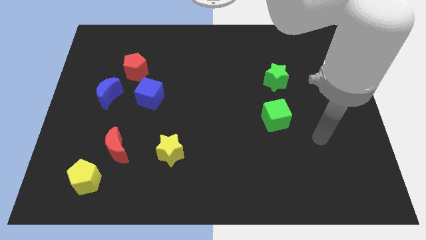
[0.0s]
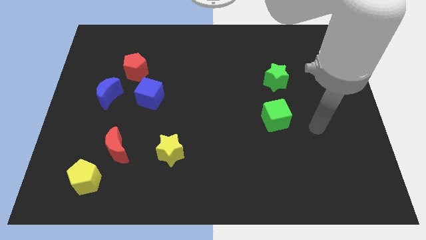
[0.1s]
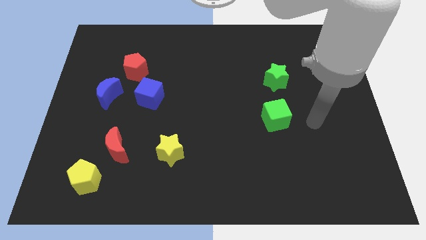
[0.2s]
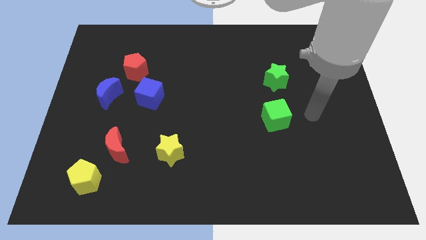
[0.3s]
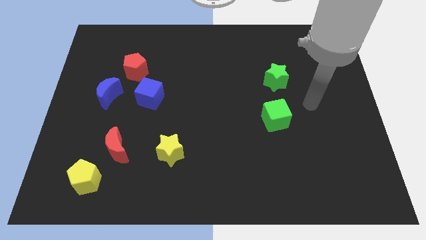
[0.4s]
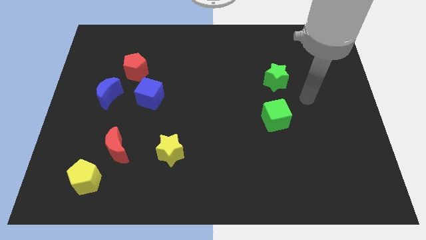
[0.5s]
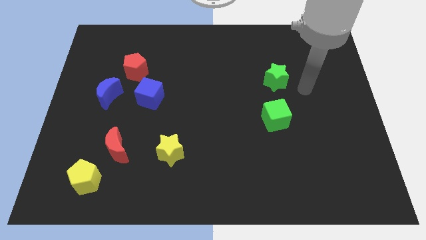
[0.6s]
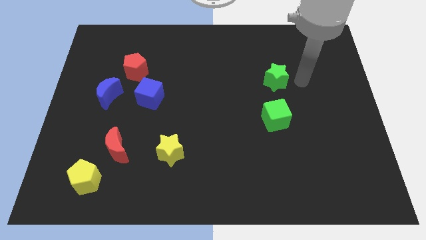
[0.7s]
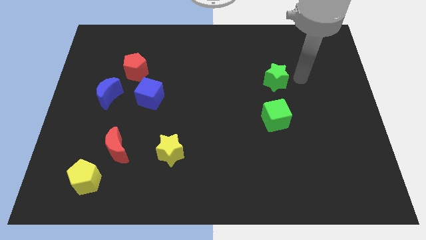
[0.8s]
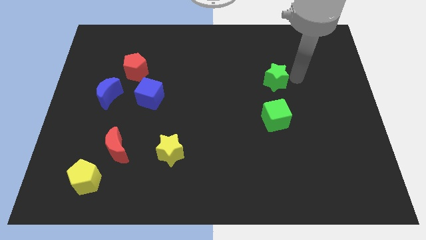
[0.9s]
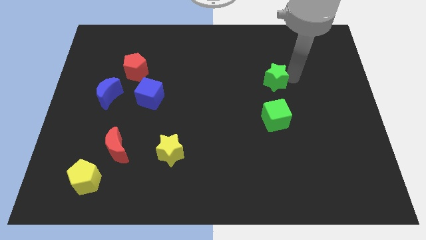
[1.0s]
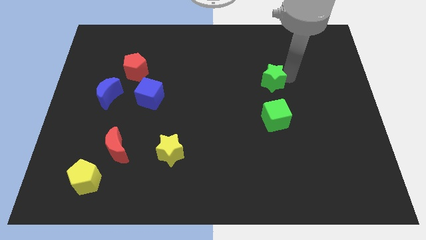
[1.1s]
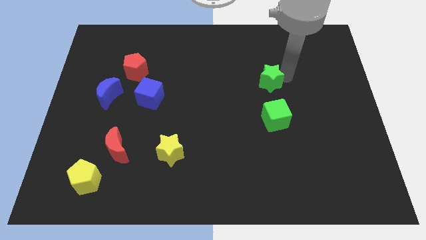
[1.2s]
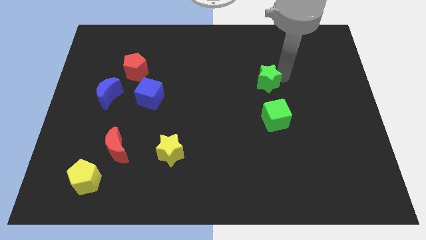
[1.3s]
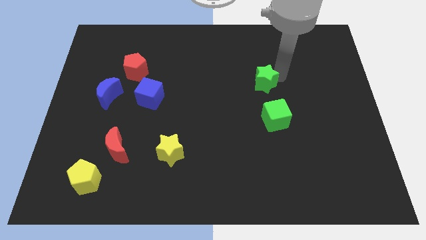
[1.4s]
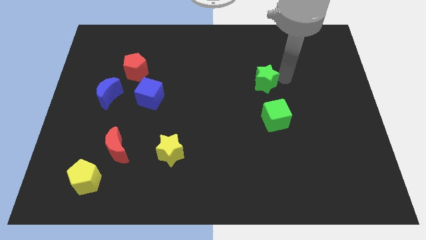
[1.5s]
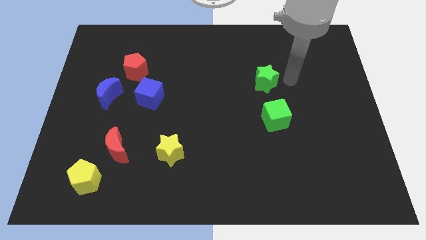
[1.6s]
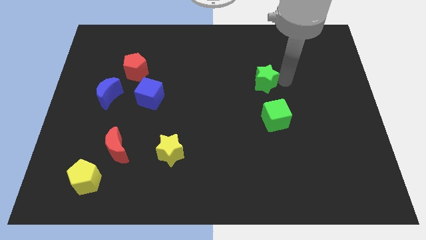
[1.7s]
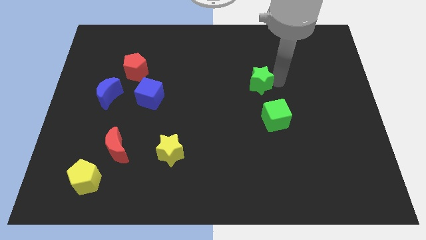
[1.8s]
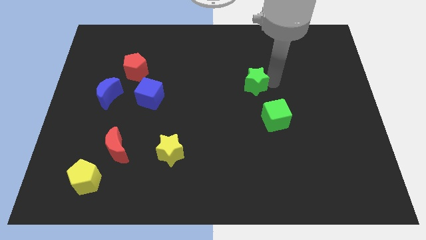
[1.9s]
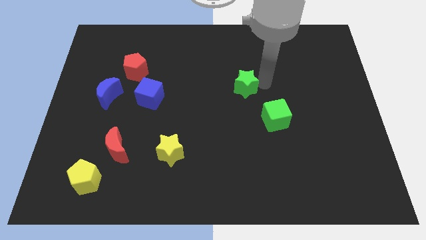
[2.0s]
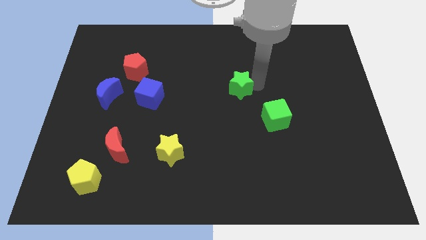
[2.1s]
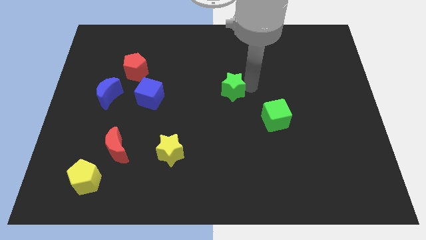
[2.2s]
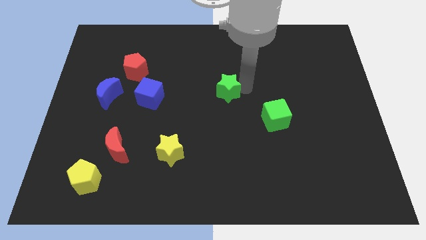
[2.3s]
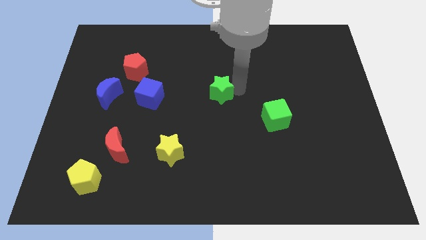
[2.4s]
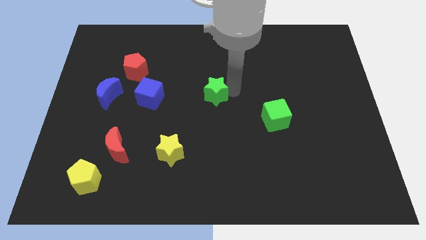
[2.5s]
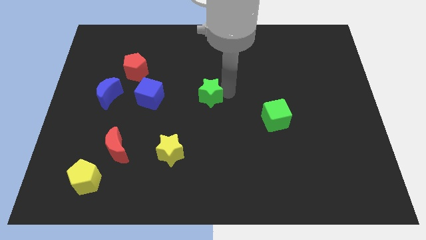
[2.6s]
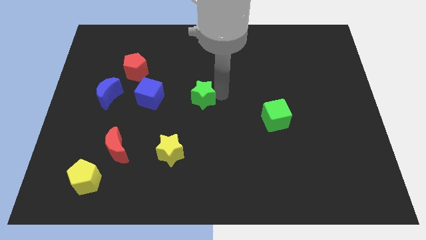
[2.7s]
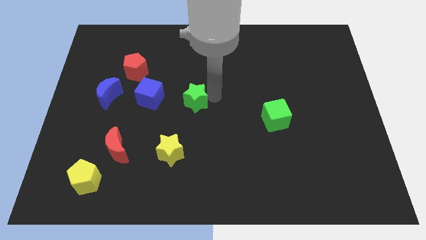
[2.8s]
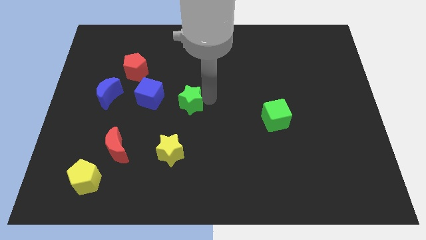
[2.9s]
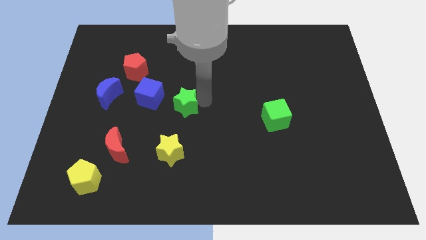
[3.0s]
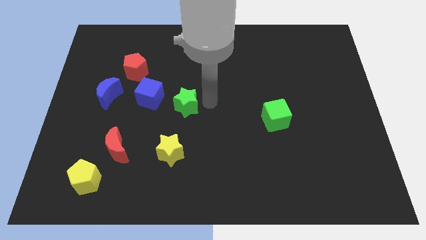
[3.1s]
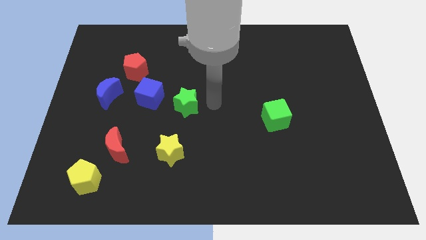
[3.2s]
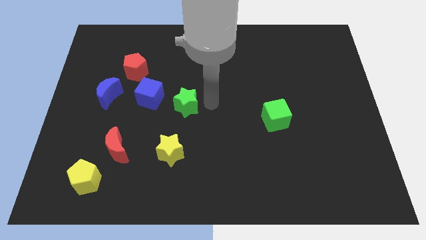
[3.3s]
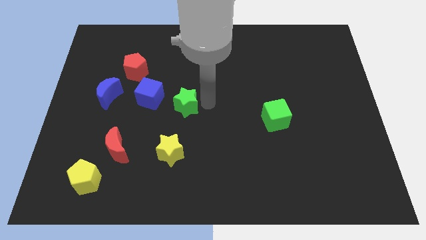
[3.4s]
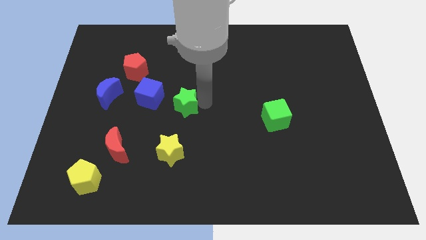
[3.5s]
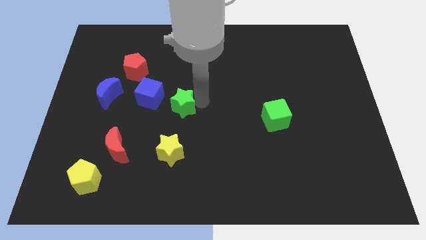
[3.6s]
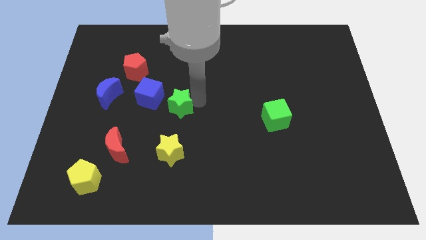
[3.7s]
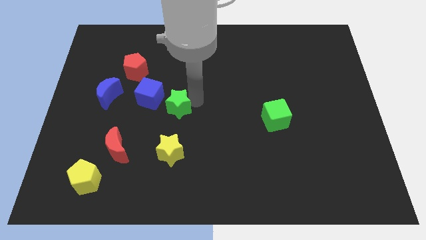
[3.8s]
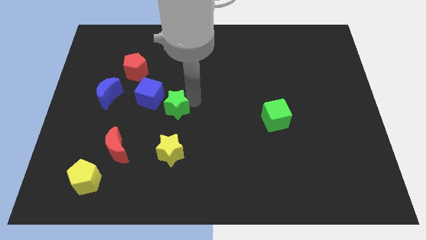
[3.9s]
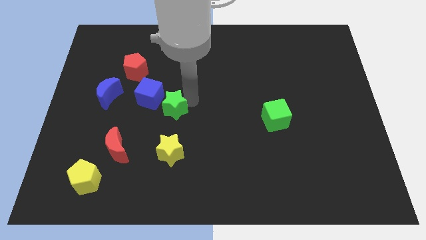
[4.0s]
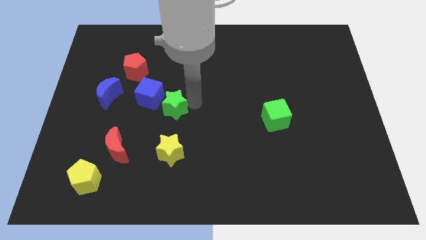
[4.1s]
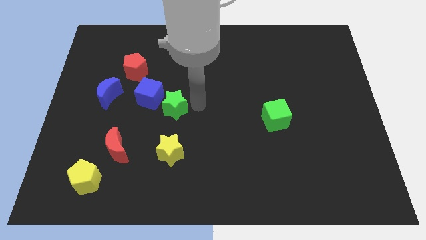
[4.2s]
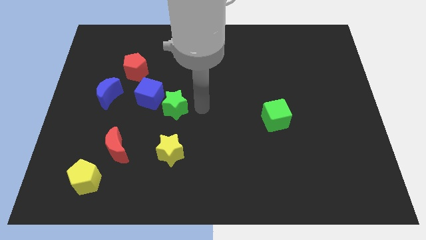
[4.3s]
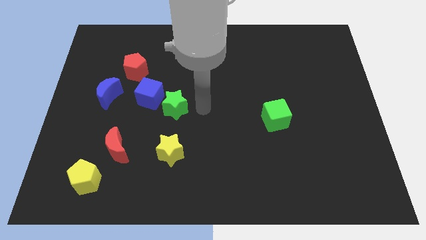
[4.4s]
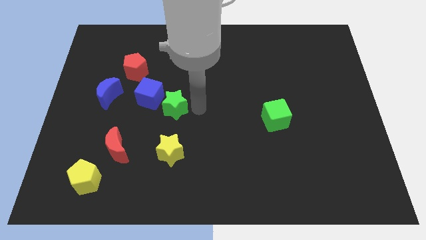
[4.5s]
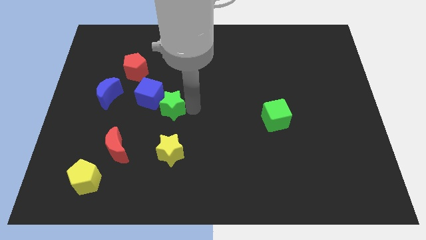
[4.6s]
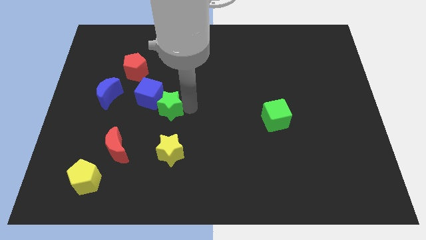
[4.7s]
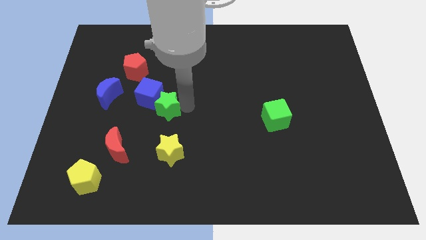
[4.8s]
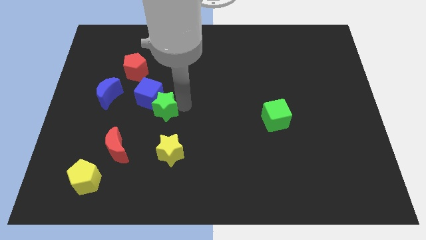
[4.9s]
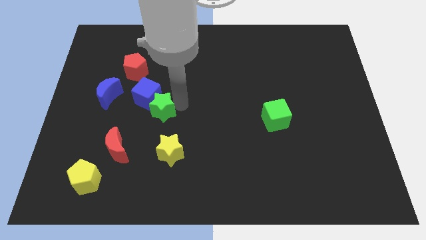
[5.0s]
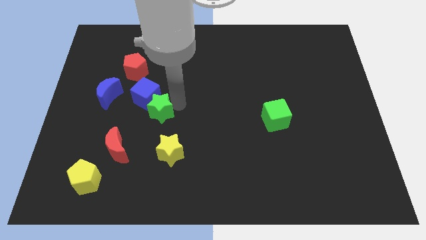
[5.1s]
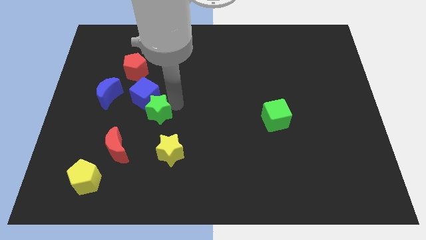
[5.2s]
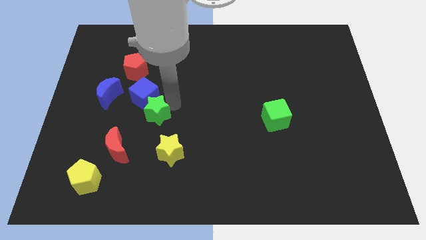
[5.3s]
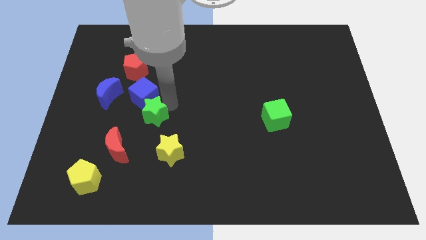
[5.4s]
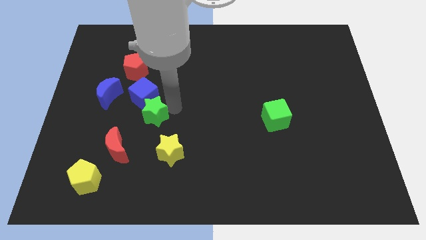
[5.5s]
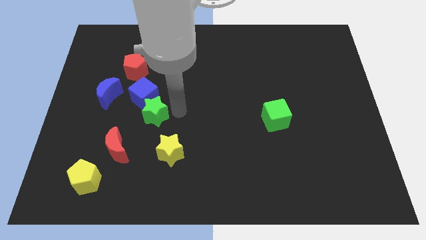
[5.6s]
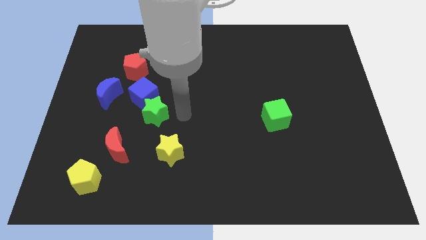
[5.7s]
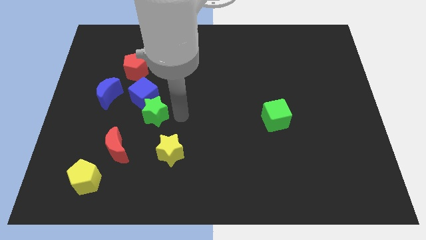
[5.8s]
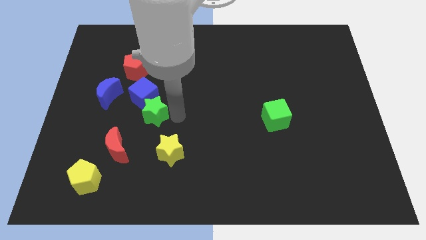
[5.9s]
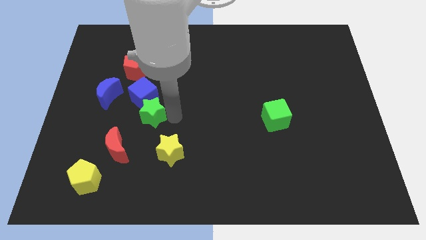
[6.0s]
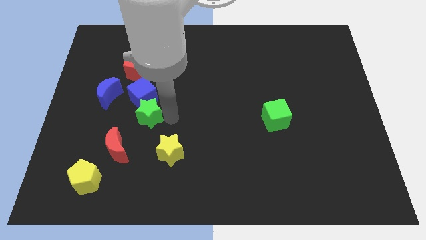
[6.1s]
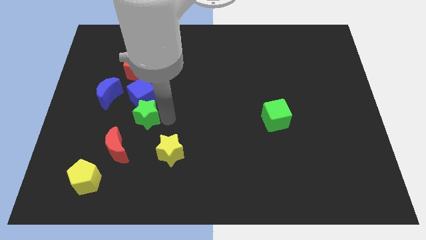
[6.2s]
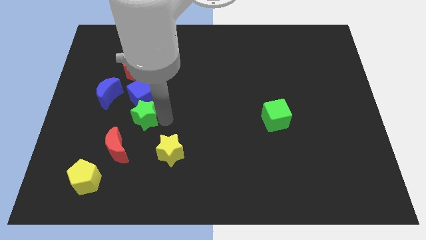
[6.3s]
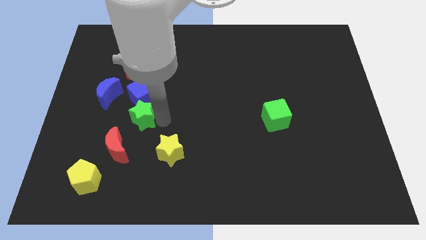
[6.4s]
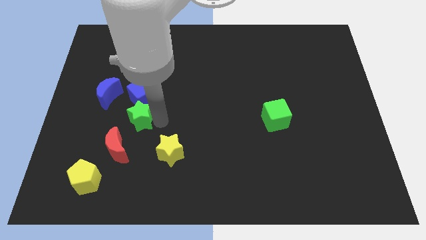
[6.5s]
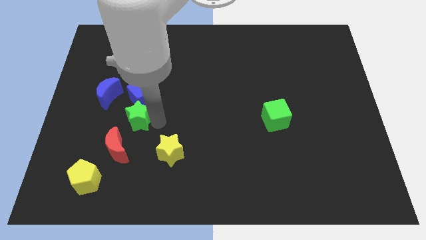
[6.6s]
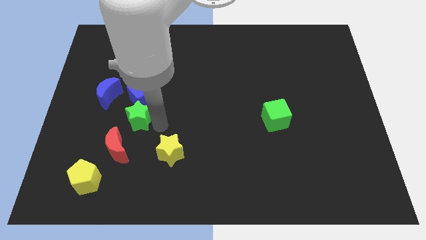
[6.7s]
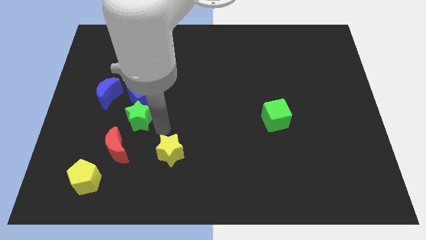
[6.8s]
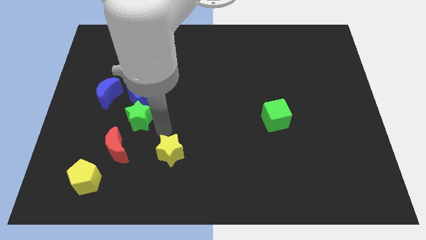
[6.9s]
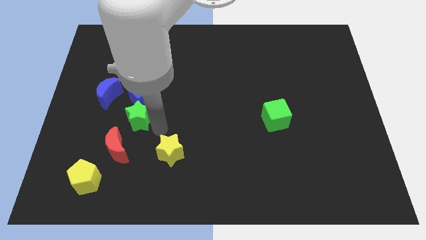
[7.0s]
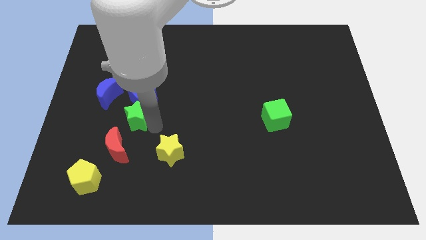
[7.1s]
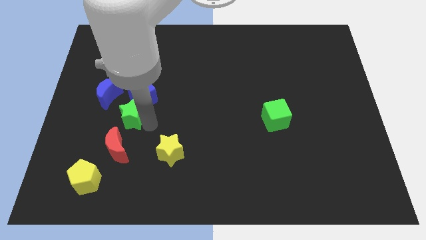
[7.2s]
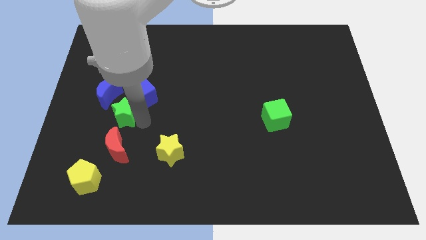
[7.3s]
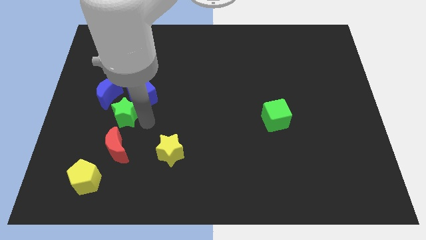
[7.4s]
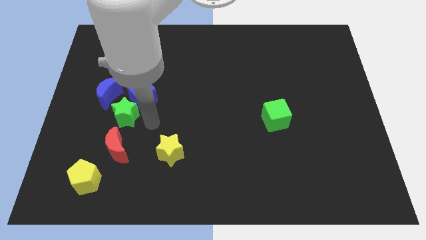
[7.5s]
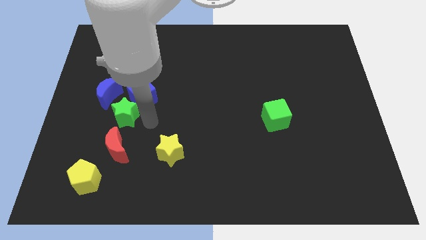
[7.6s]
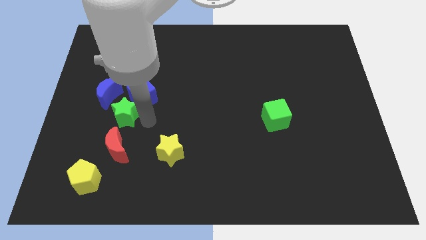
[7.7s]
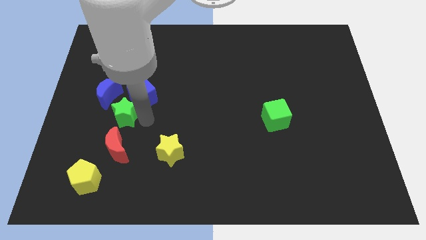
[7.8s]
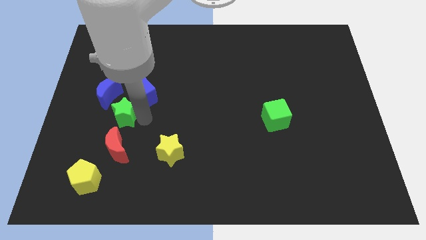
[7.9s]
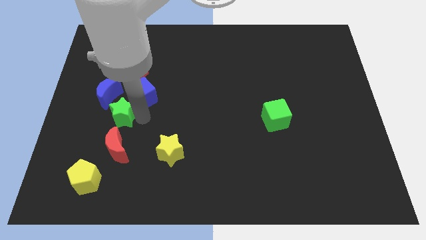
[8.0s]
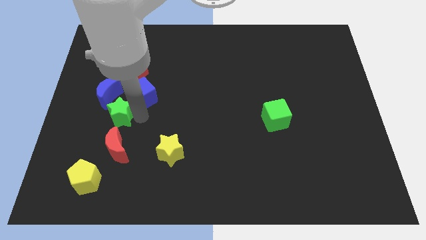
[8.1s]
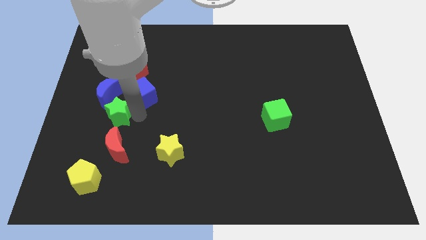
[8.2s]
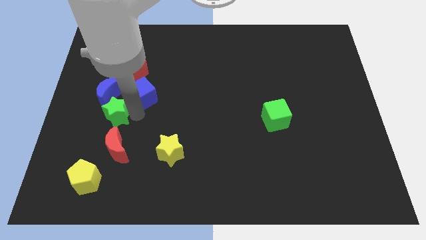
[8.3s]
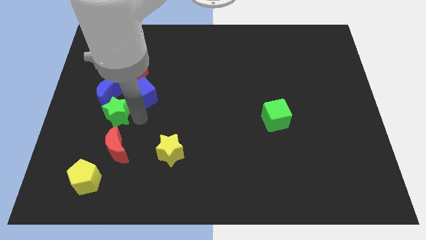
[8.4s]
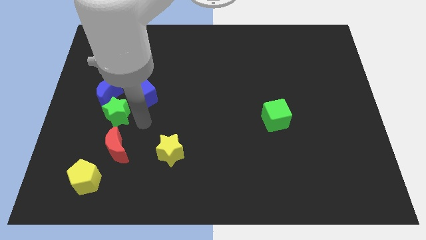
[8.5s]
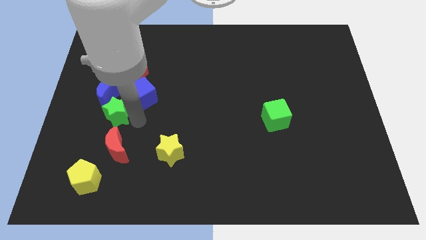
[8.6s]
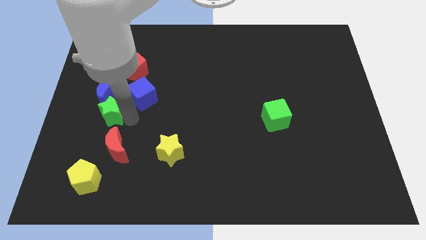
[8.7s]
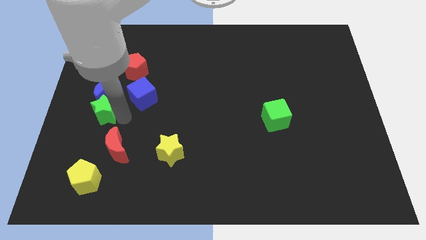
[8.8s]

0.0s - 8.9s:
move the green star left of the blue cube
